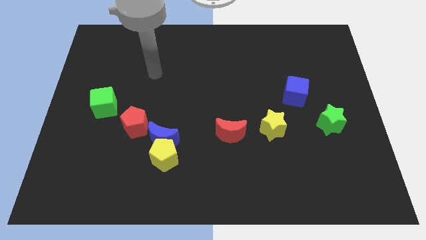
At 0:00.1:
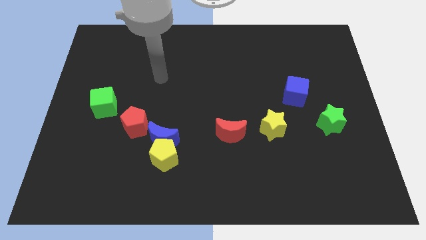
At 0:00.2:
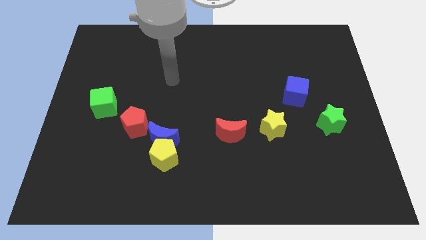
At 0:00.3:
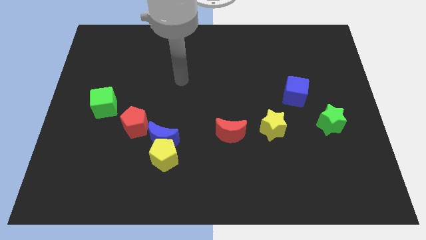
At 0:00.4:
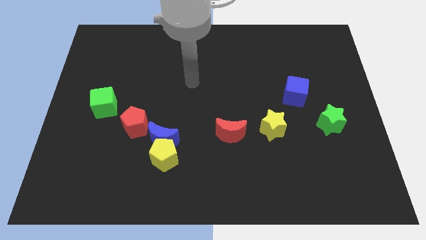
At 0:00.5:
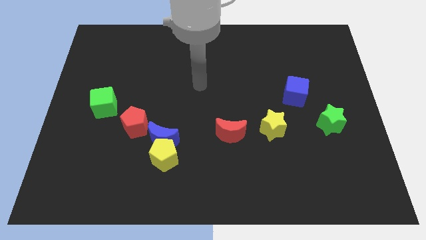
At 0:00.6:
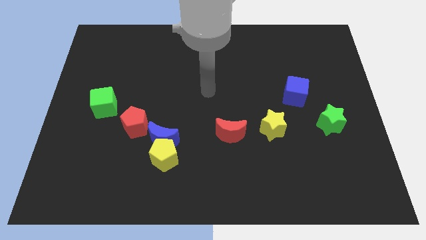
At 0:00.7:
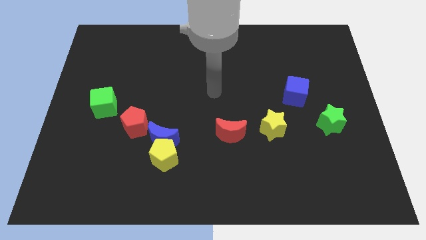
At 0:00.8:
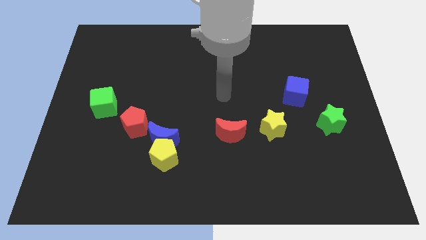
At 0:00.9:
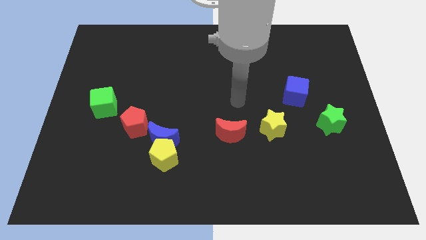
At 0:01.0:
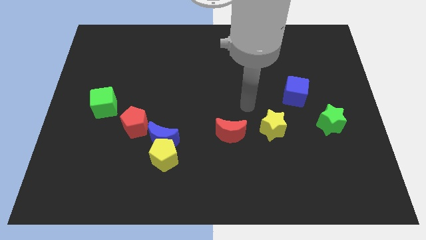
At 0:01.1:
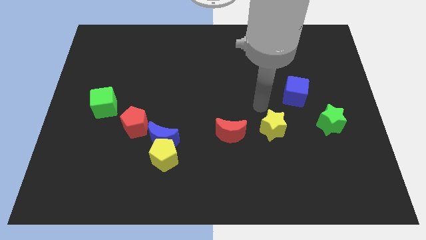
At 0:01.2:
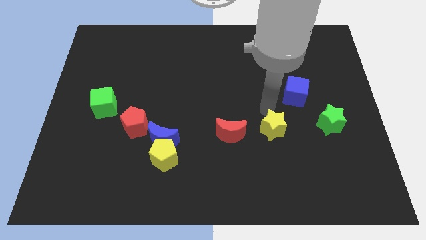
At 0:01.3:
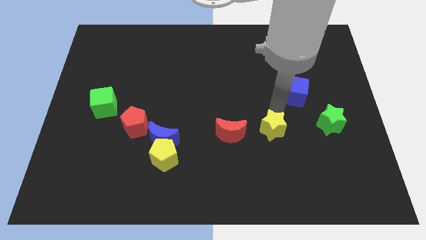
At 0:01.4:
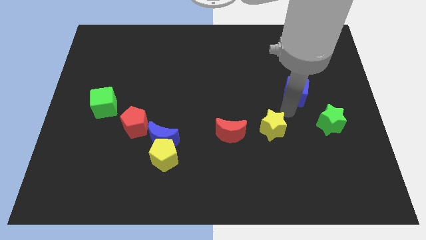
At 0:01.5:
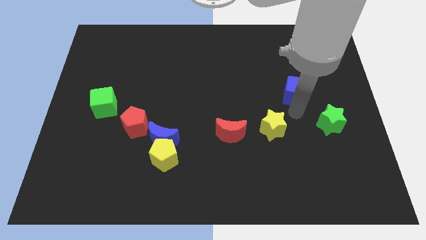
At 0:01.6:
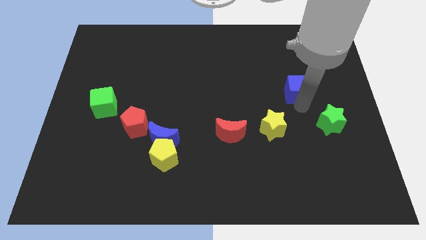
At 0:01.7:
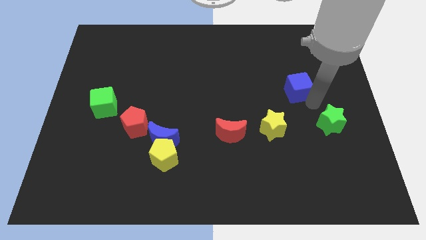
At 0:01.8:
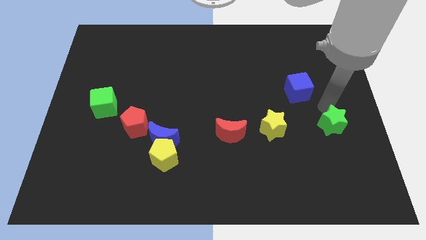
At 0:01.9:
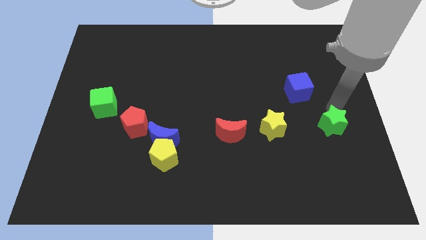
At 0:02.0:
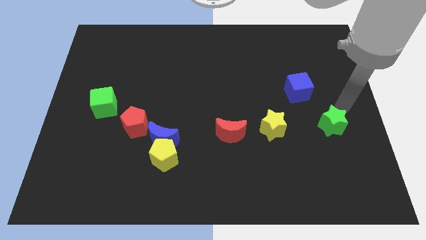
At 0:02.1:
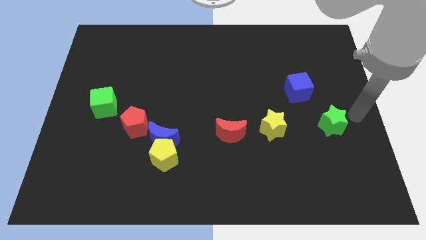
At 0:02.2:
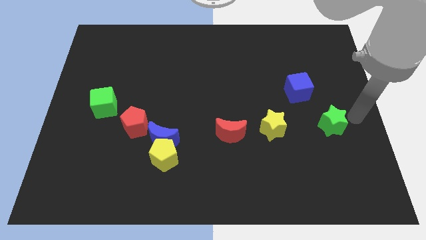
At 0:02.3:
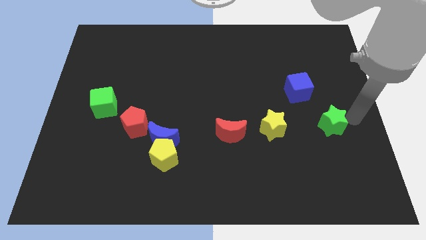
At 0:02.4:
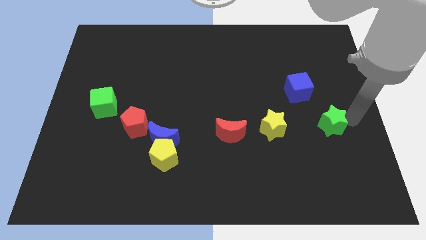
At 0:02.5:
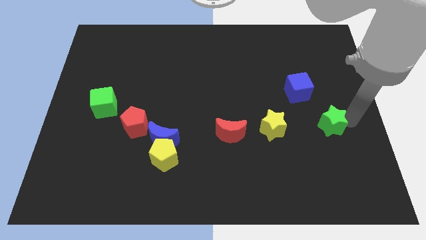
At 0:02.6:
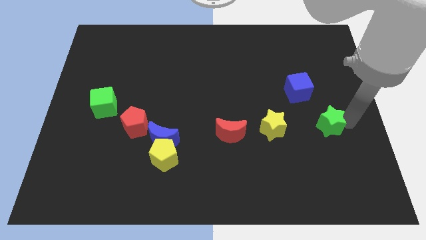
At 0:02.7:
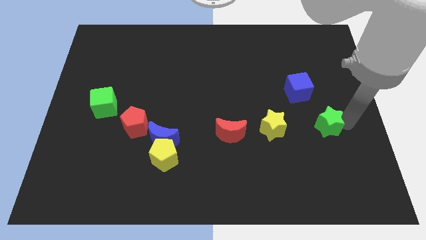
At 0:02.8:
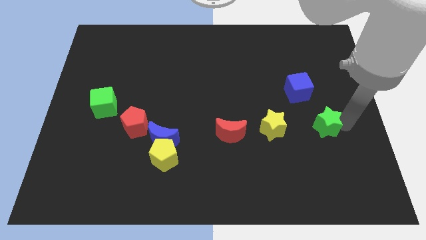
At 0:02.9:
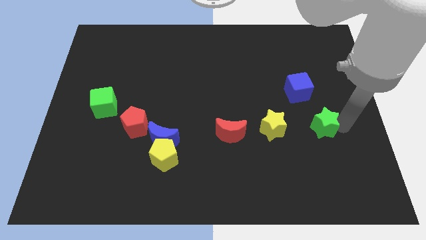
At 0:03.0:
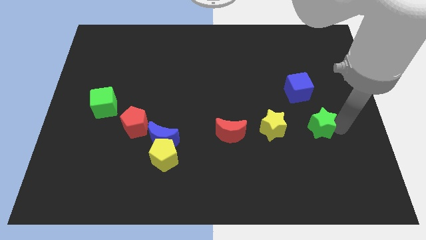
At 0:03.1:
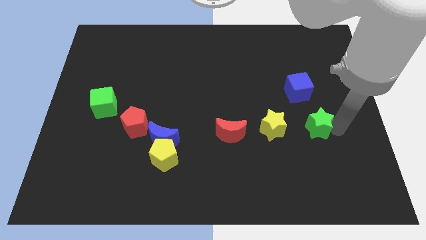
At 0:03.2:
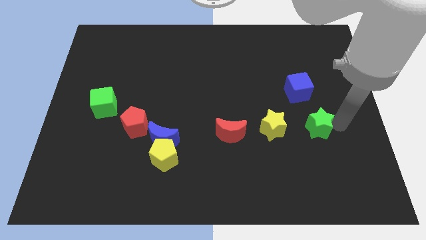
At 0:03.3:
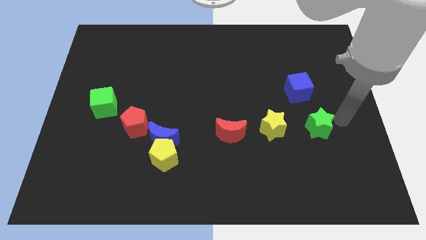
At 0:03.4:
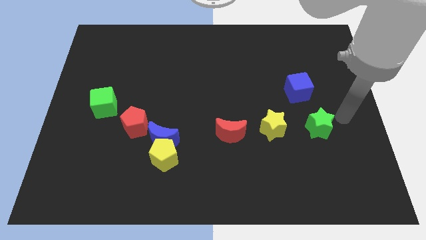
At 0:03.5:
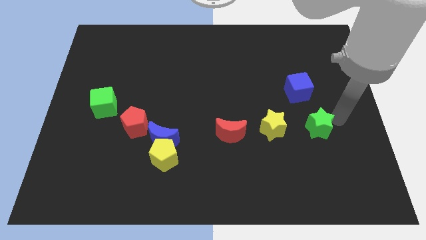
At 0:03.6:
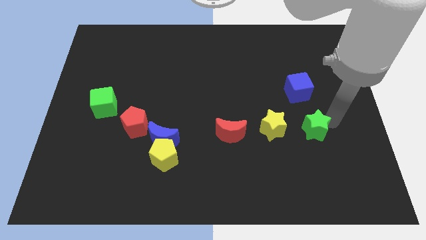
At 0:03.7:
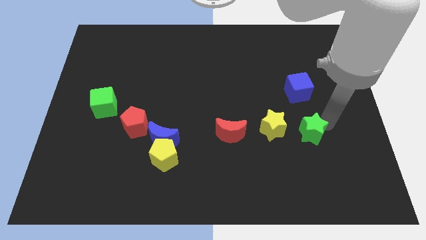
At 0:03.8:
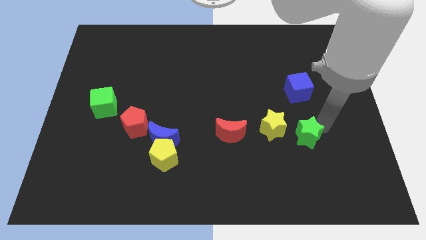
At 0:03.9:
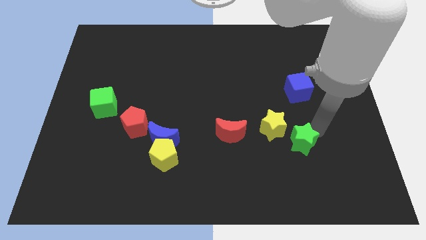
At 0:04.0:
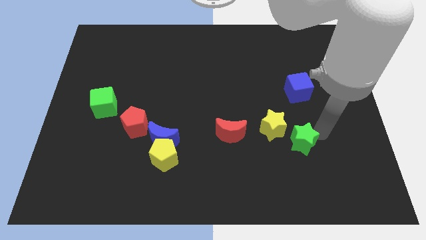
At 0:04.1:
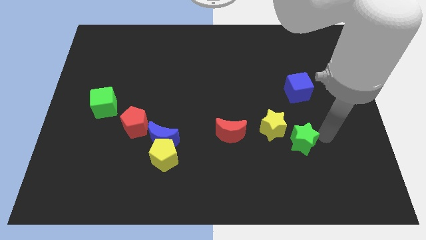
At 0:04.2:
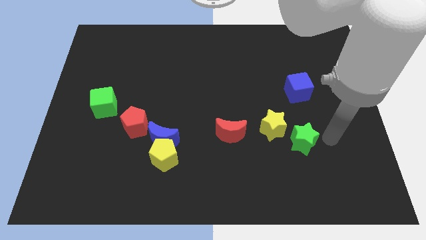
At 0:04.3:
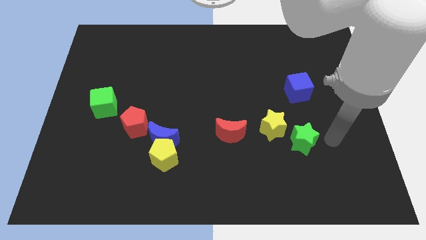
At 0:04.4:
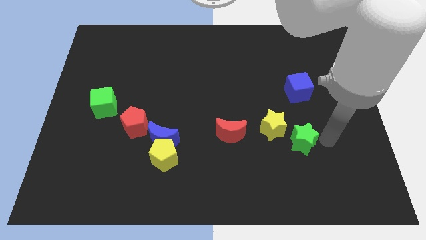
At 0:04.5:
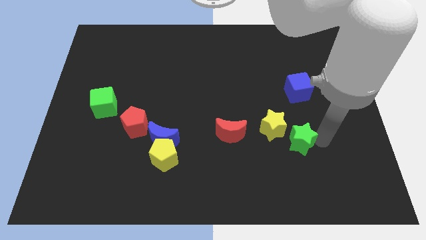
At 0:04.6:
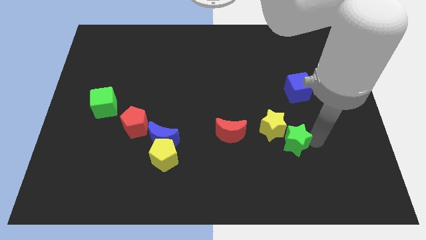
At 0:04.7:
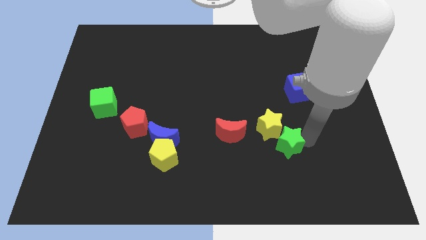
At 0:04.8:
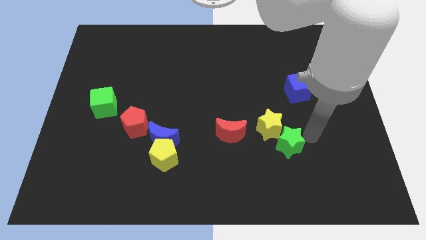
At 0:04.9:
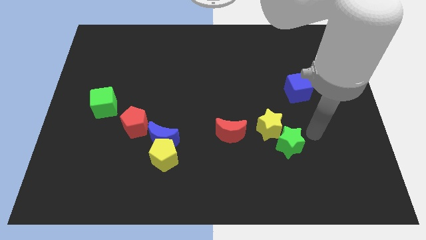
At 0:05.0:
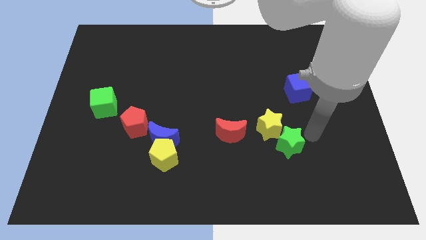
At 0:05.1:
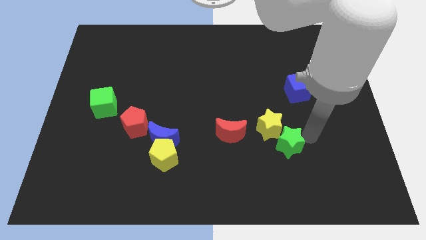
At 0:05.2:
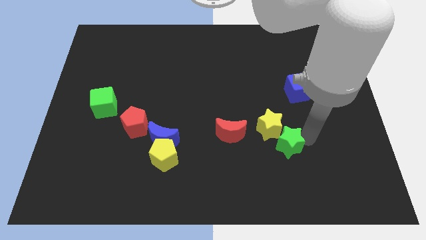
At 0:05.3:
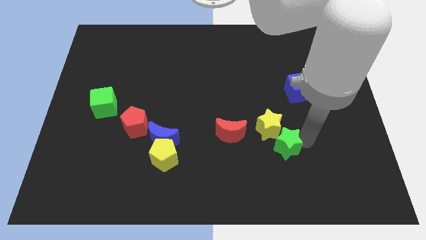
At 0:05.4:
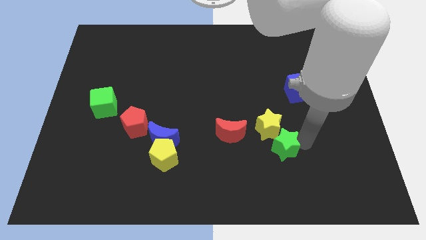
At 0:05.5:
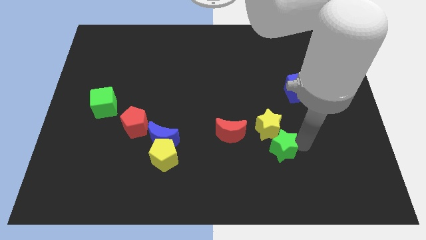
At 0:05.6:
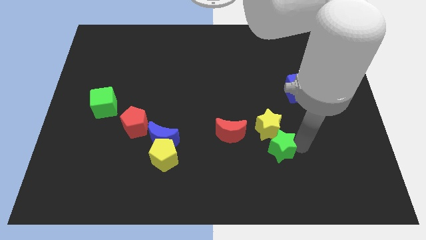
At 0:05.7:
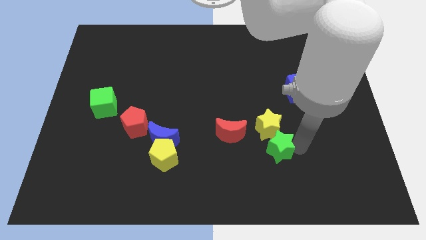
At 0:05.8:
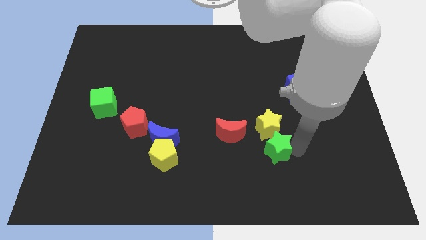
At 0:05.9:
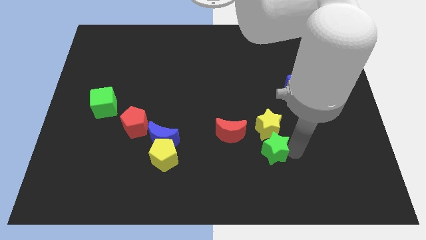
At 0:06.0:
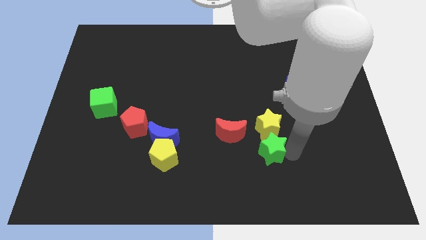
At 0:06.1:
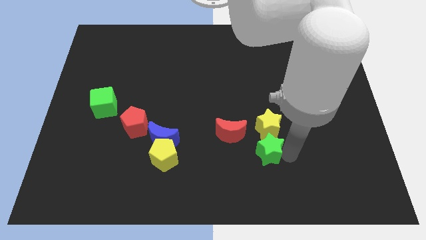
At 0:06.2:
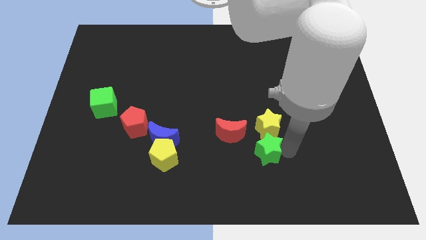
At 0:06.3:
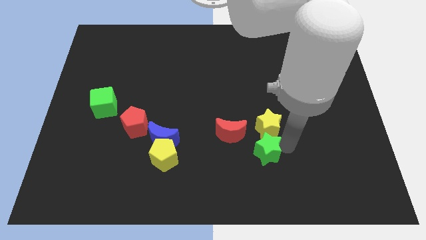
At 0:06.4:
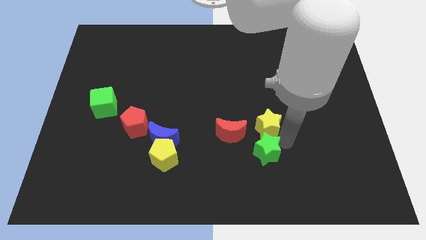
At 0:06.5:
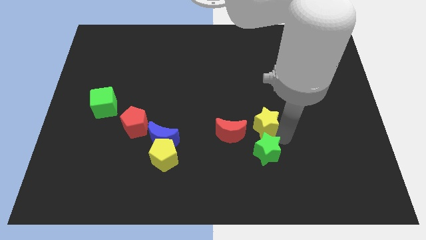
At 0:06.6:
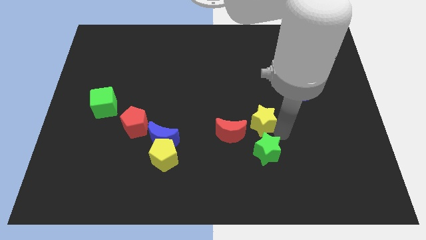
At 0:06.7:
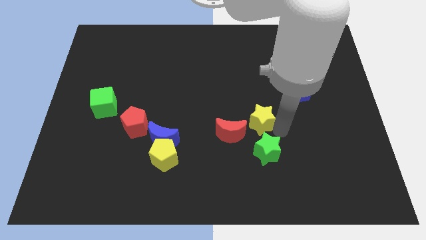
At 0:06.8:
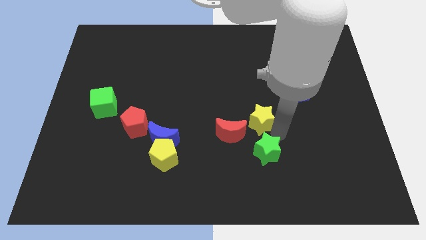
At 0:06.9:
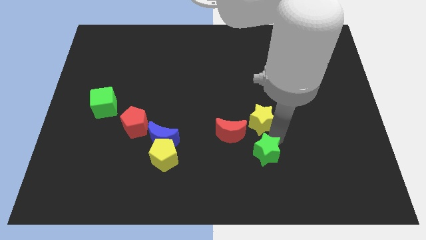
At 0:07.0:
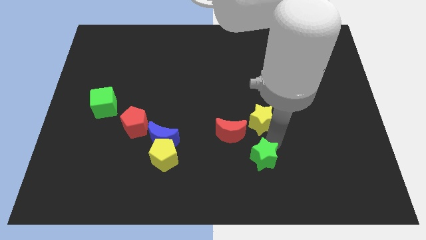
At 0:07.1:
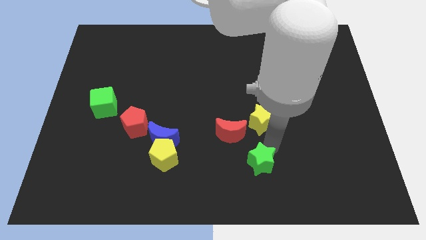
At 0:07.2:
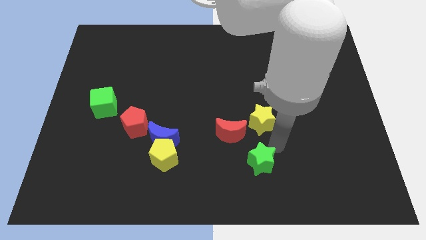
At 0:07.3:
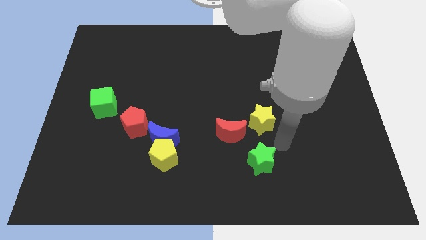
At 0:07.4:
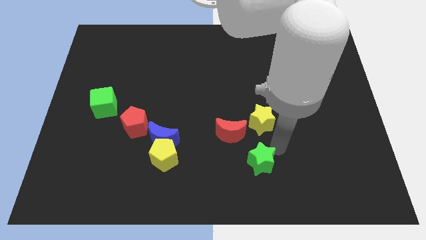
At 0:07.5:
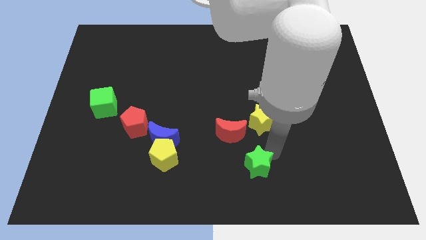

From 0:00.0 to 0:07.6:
move the green star to the bottom side
